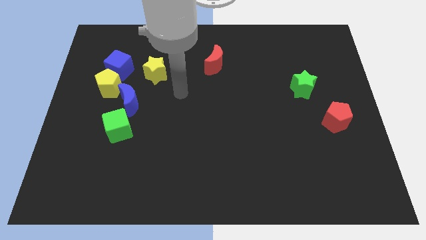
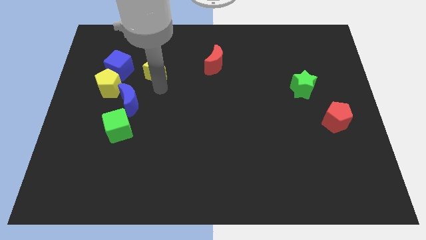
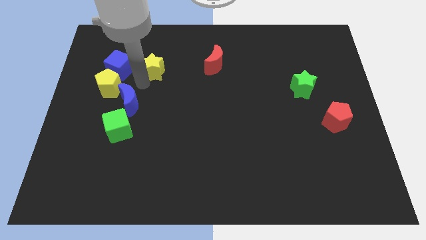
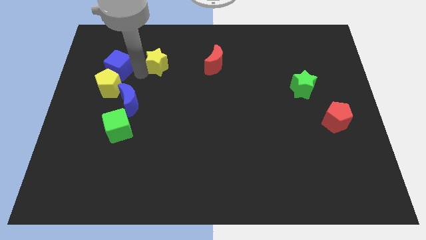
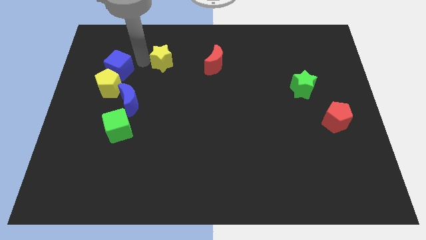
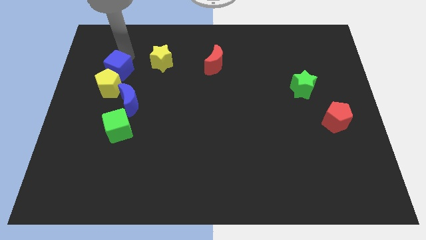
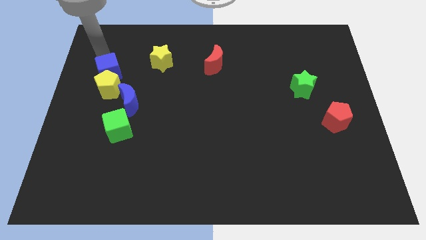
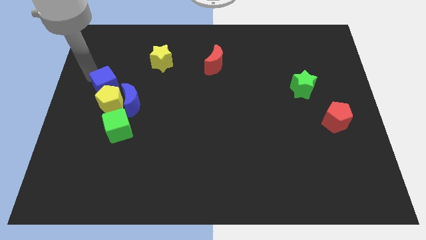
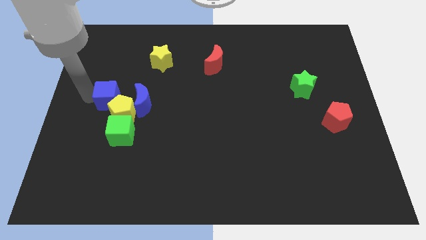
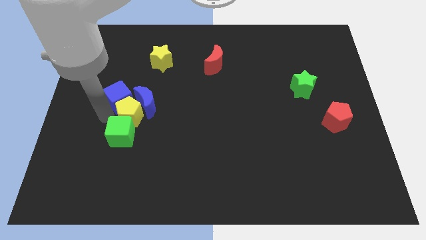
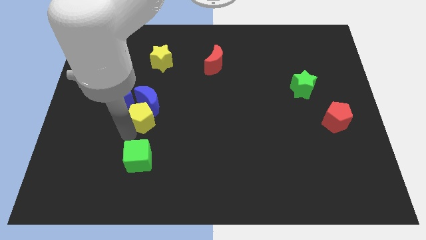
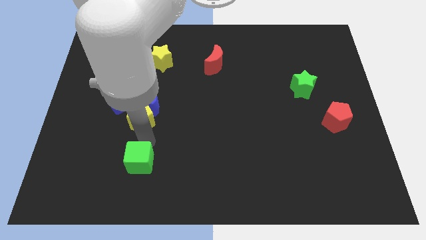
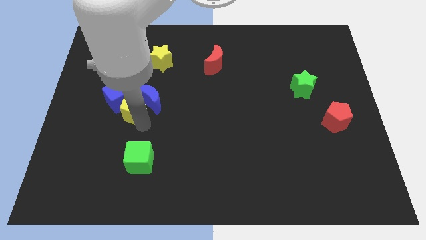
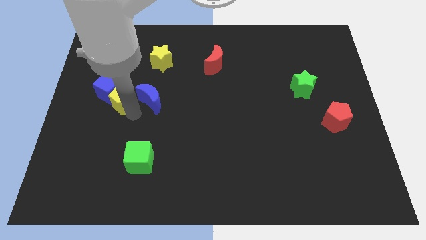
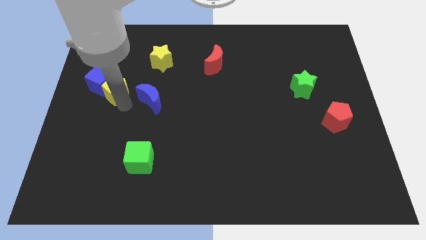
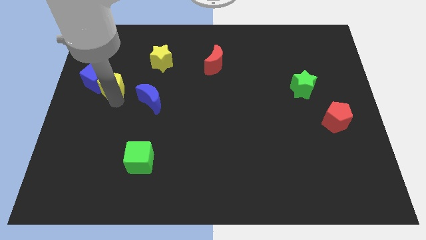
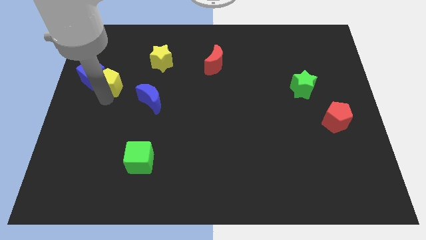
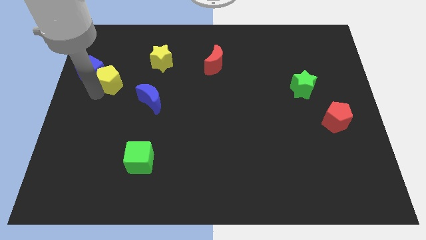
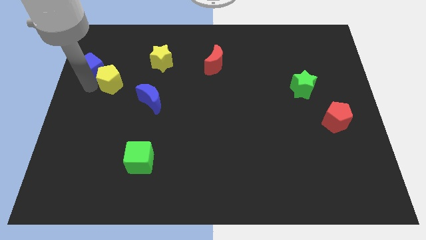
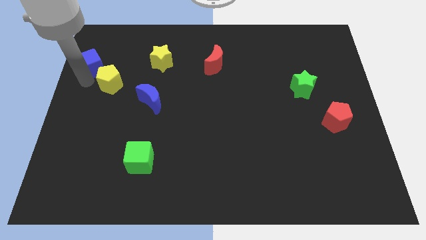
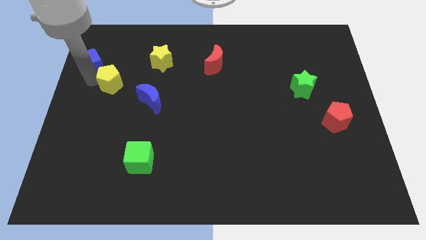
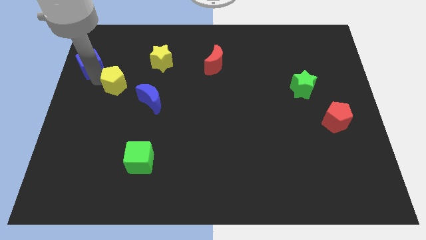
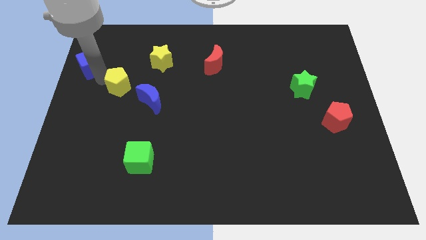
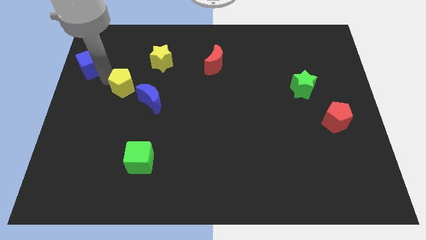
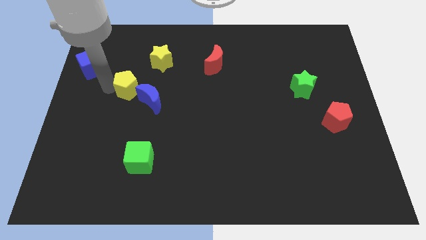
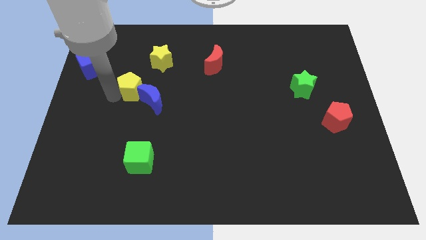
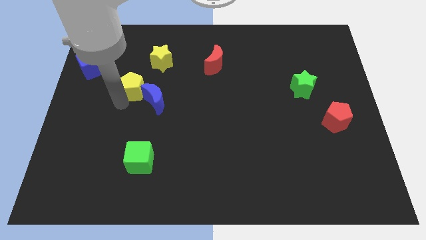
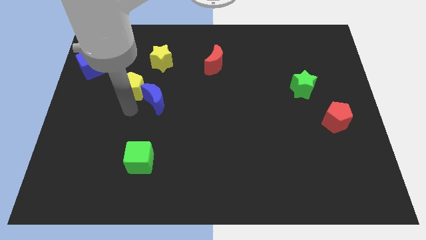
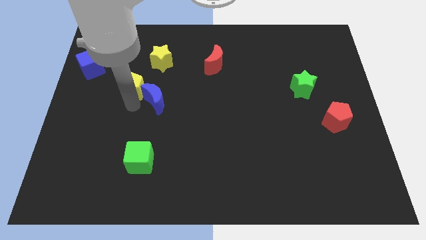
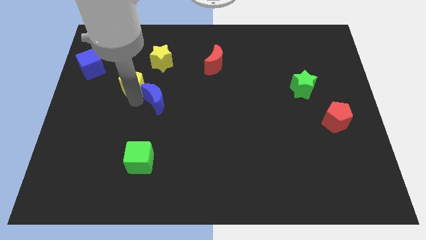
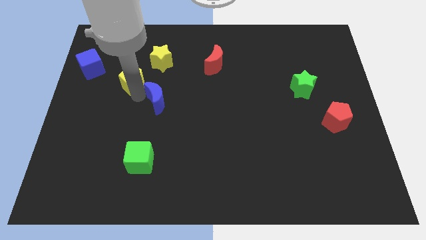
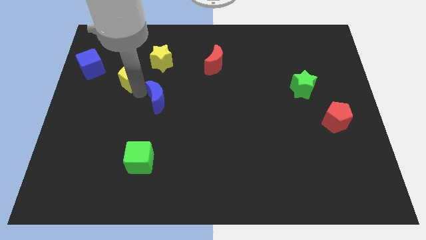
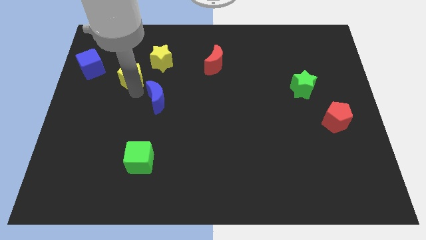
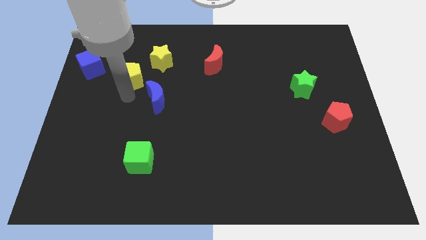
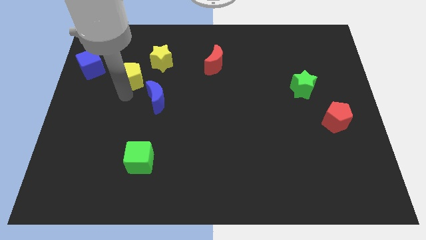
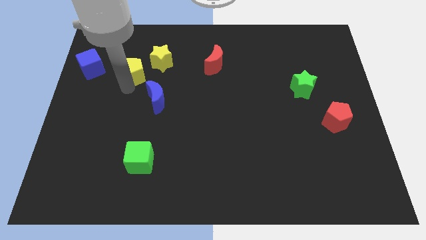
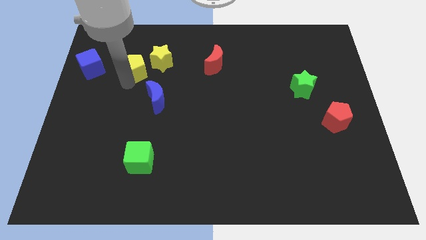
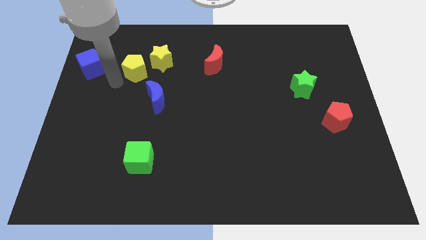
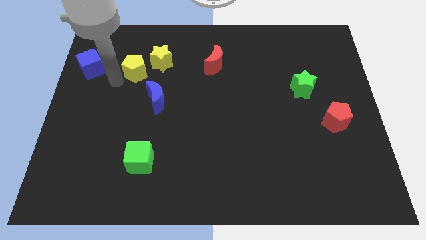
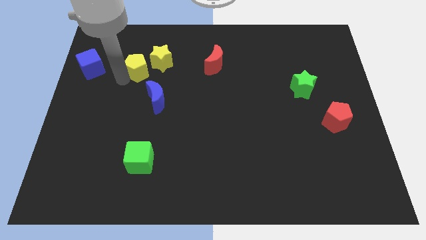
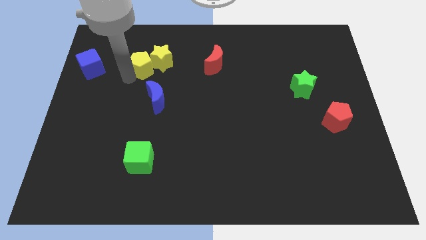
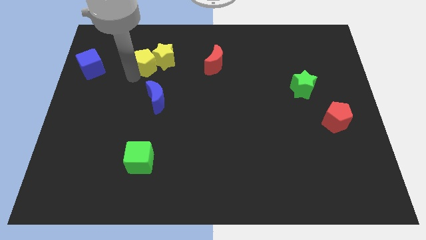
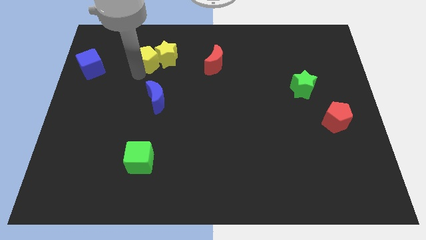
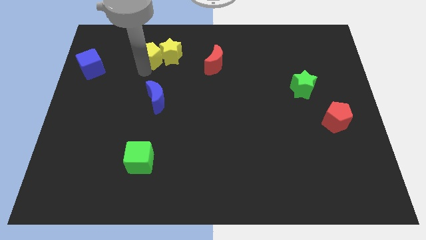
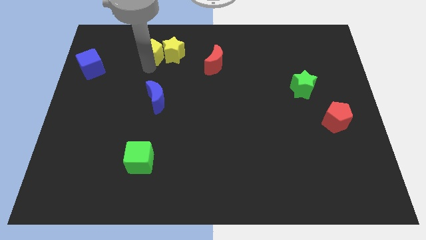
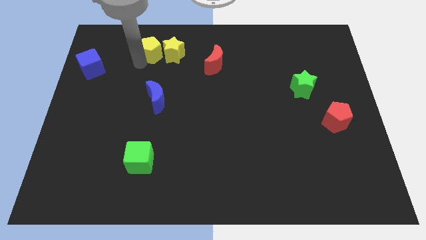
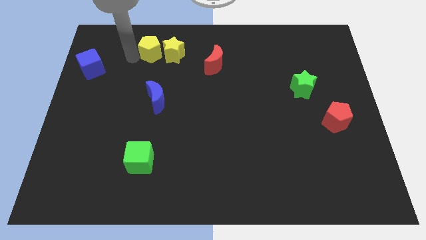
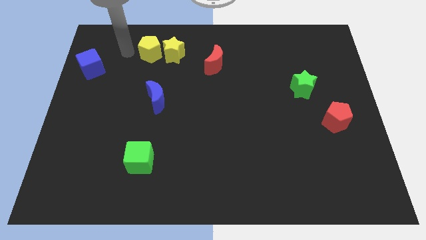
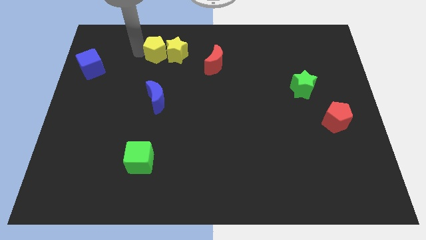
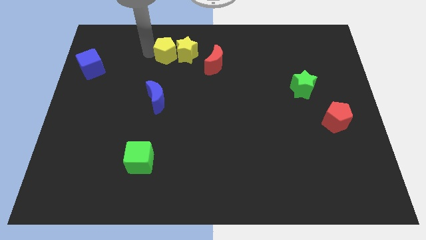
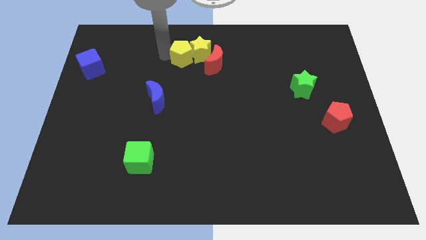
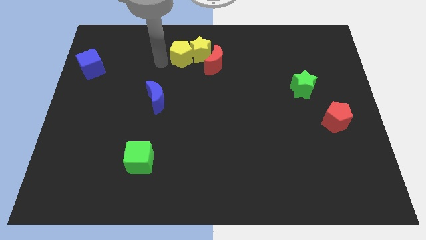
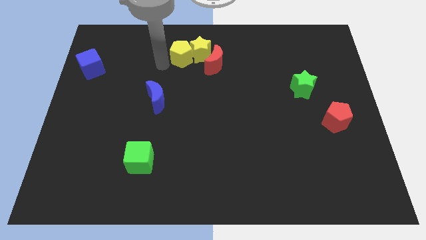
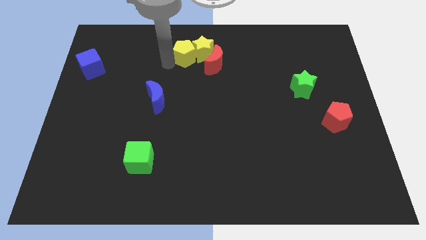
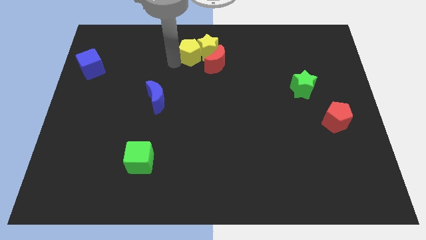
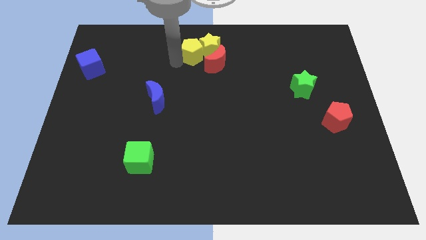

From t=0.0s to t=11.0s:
put the yellow pentagon to the top side

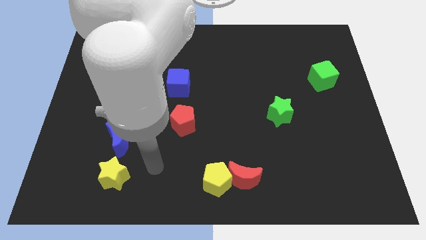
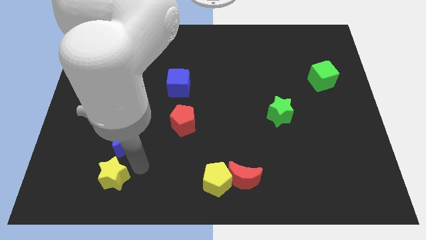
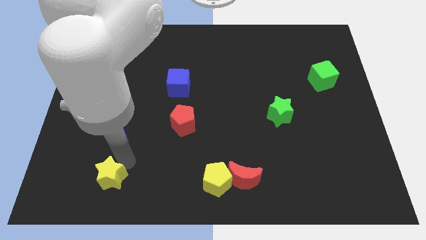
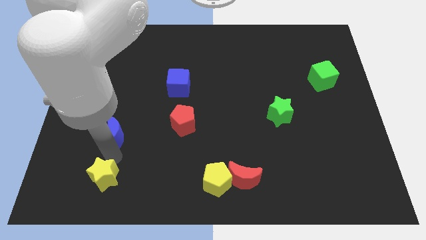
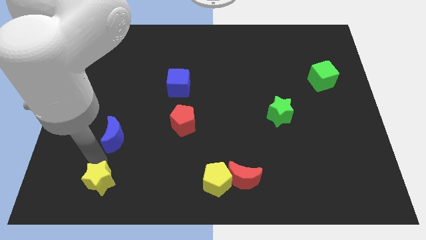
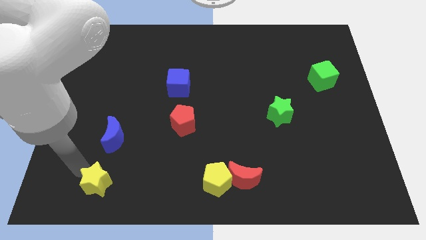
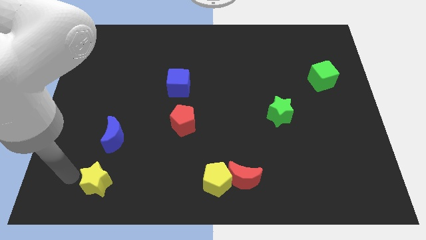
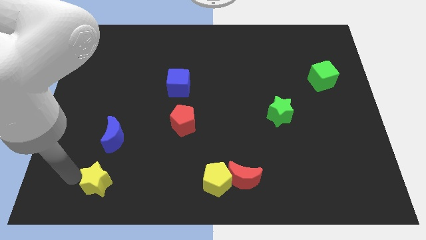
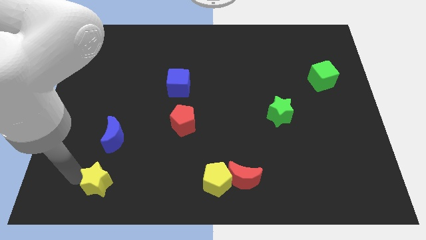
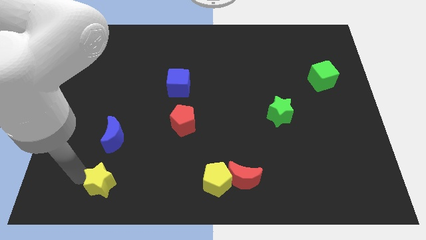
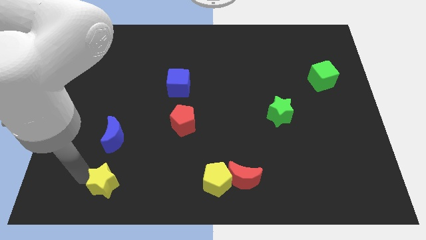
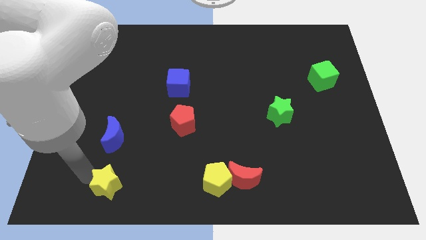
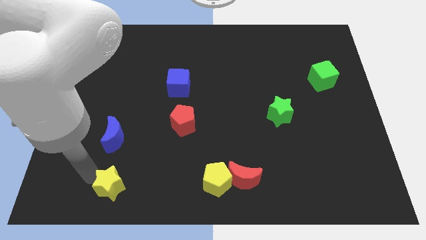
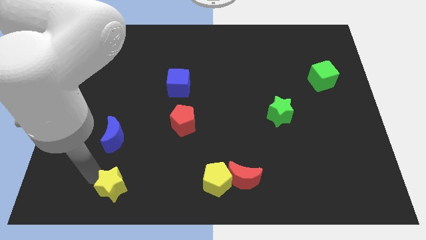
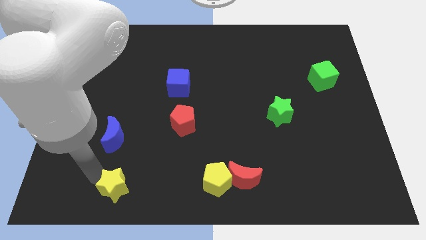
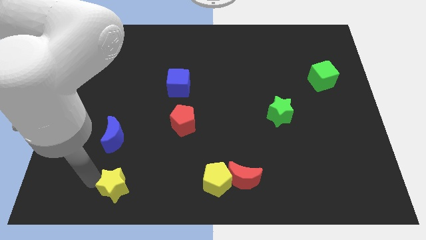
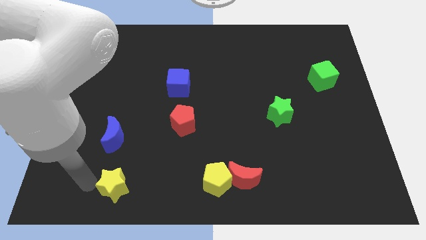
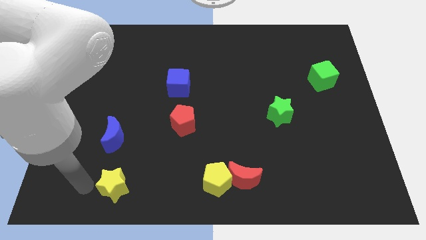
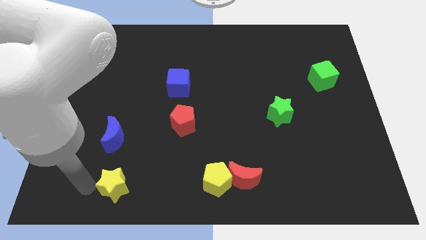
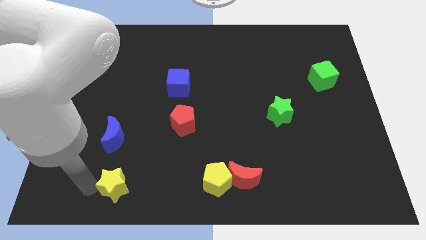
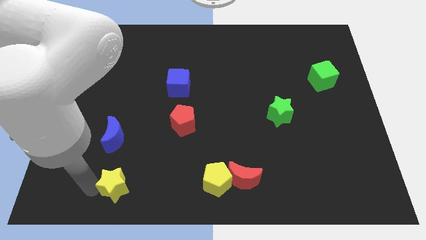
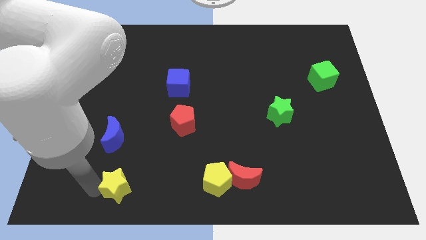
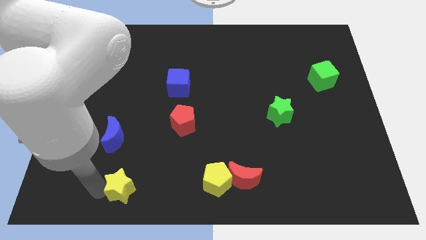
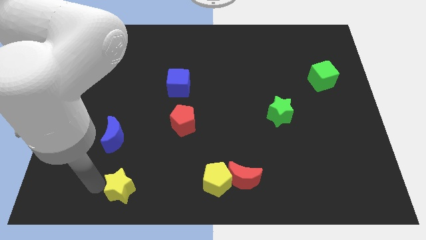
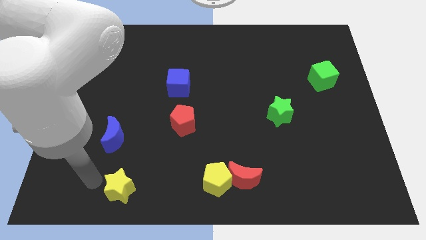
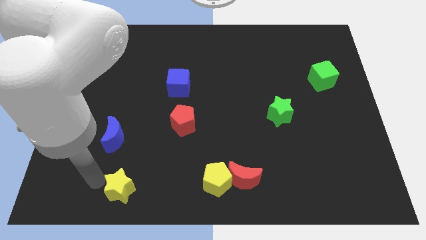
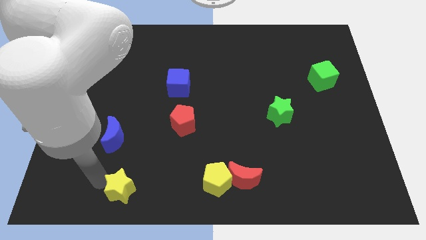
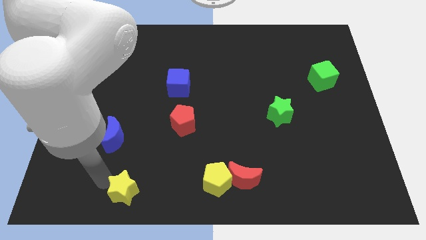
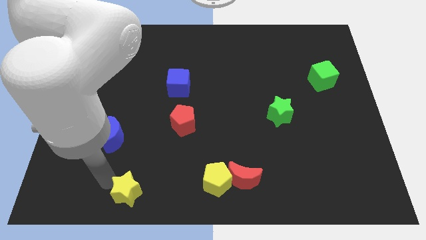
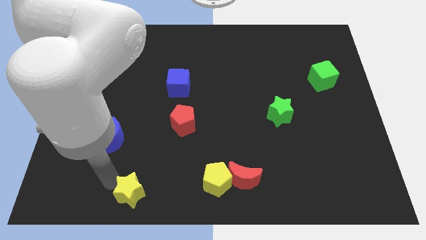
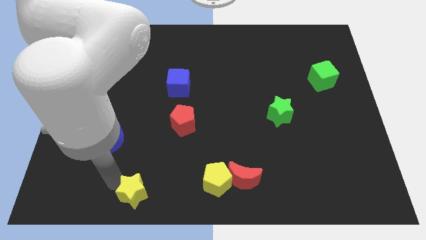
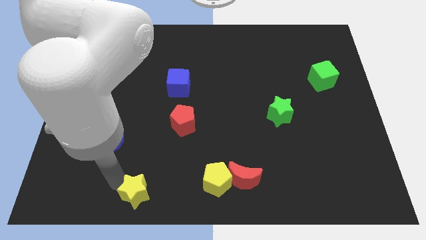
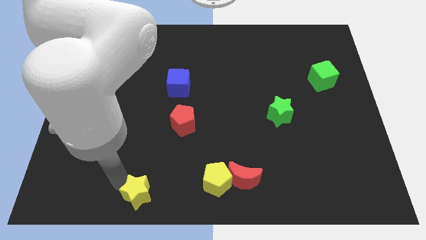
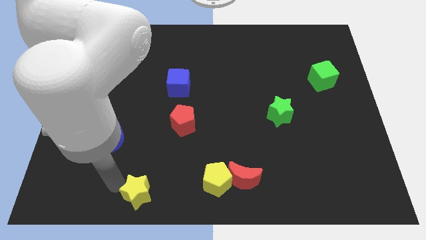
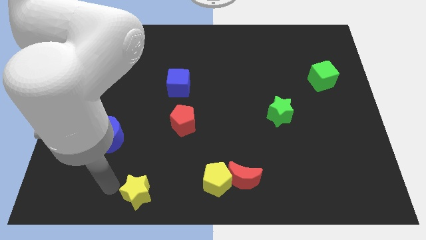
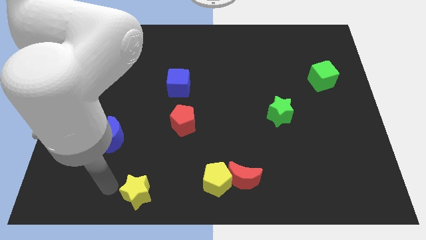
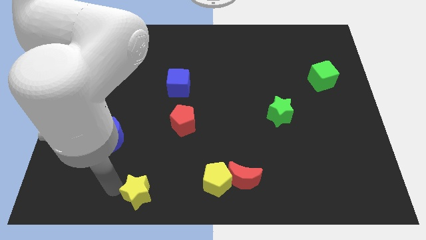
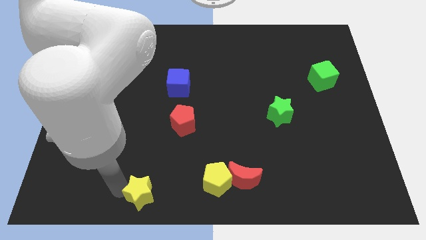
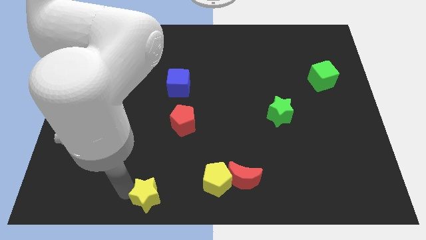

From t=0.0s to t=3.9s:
move the yellow star to the bottom
